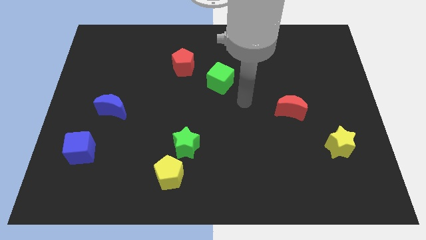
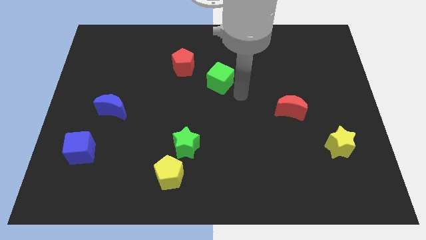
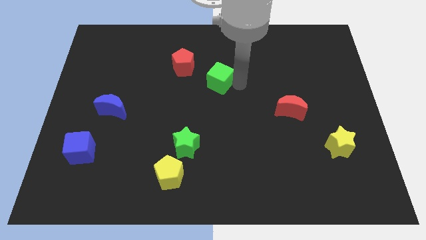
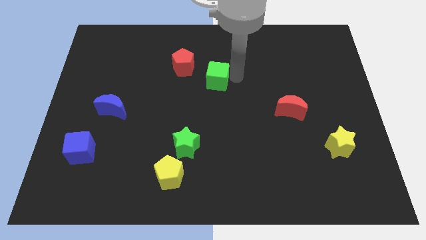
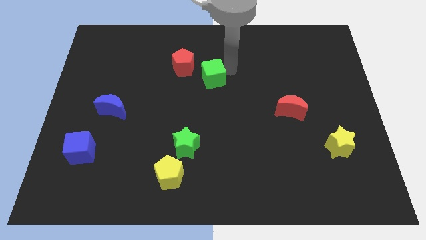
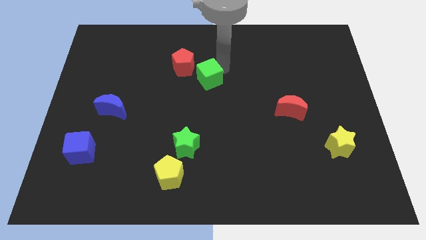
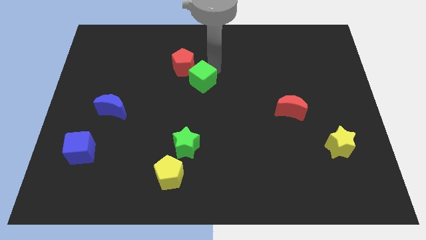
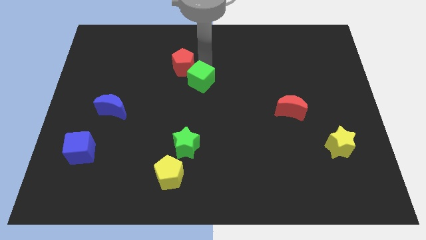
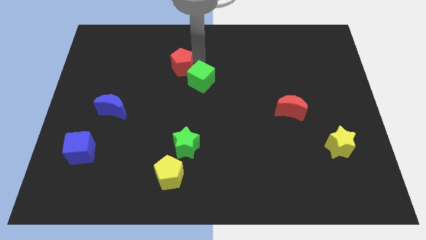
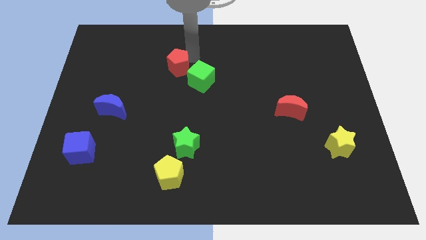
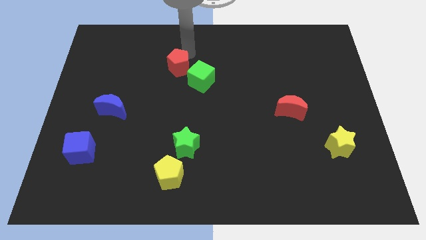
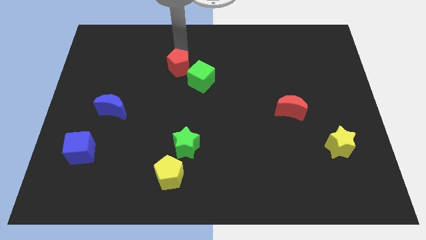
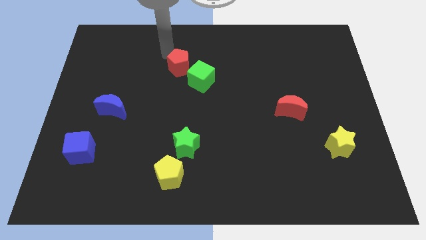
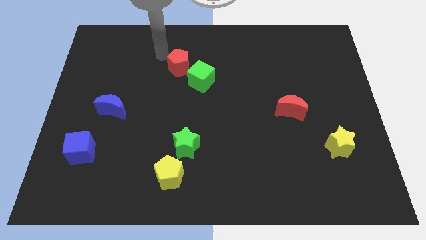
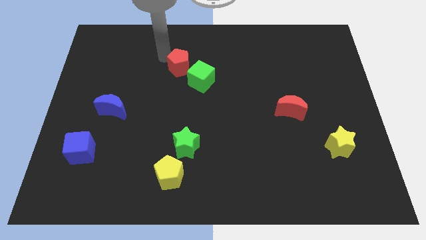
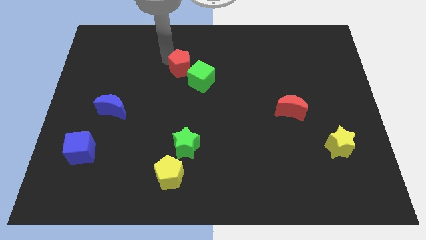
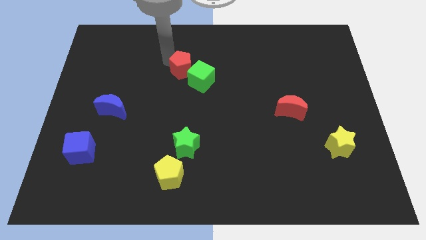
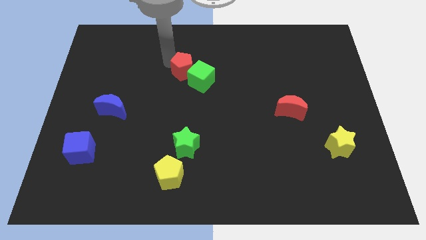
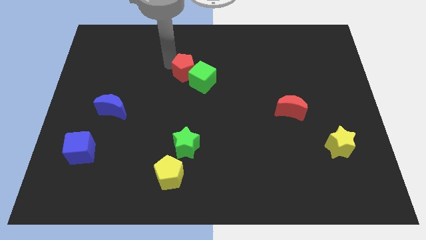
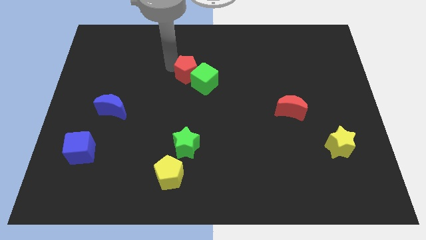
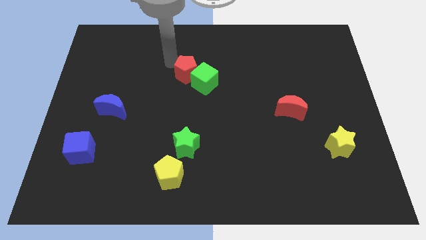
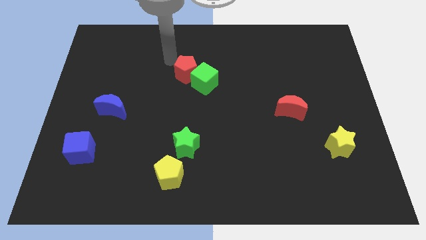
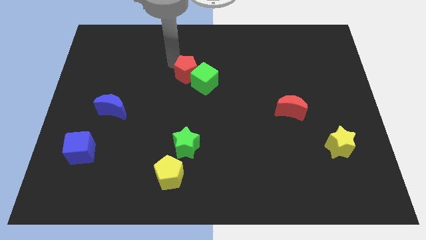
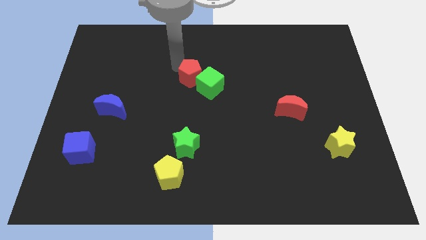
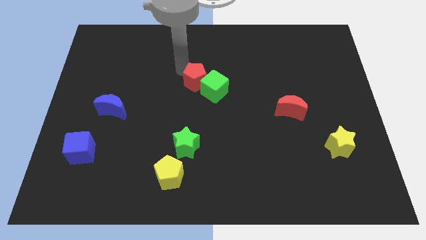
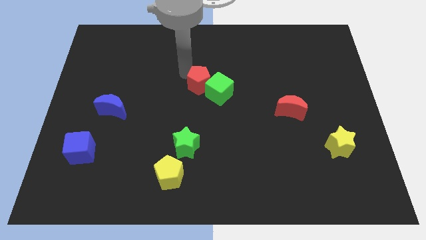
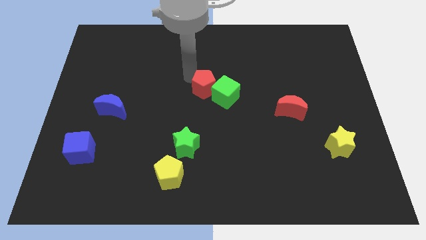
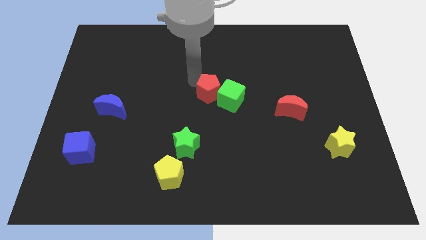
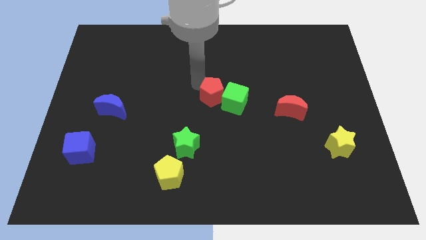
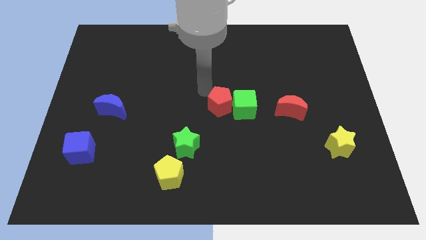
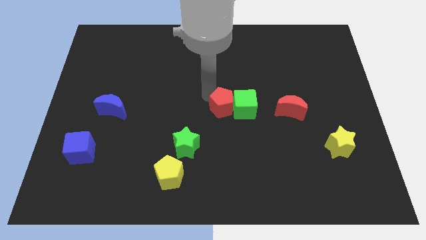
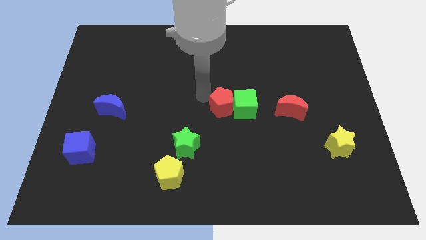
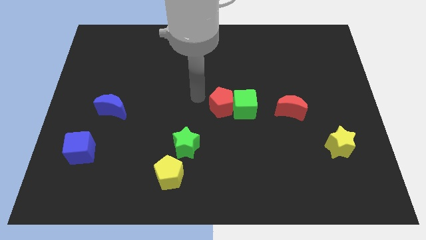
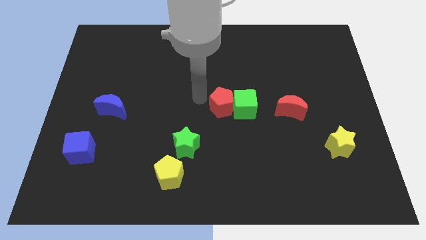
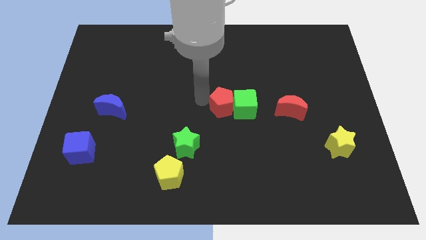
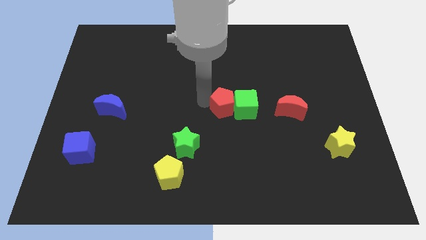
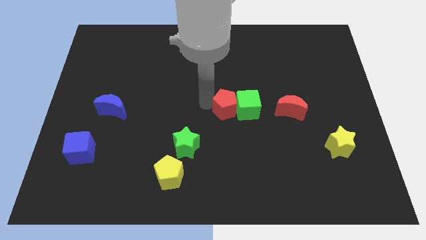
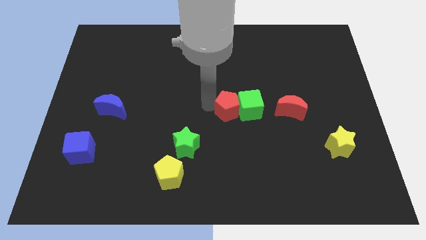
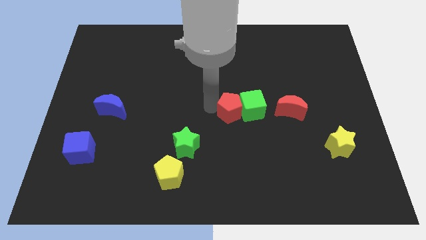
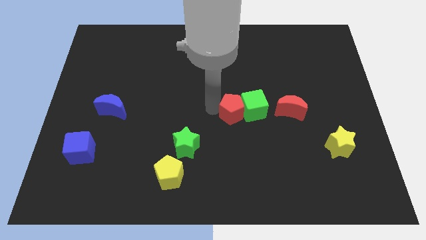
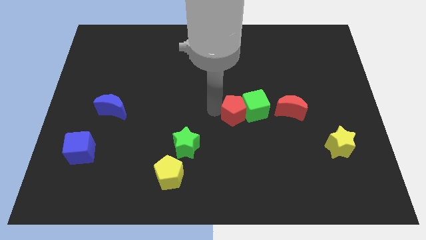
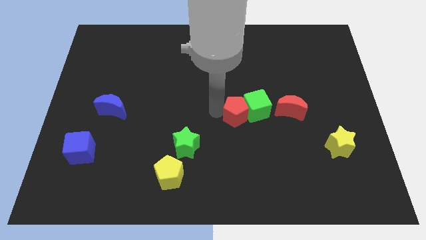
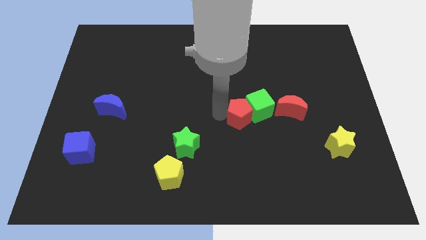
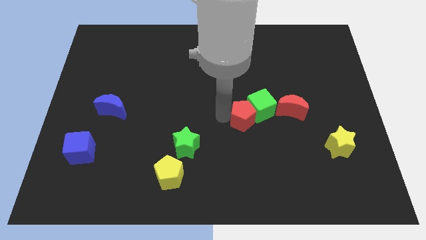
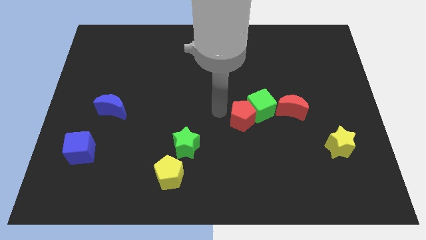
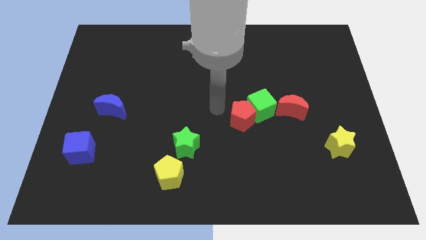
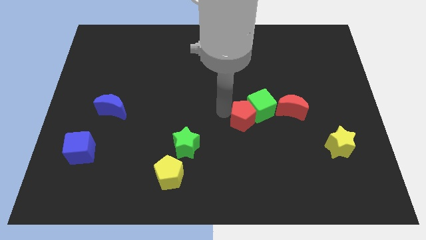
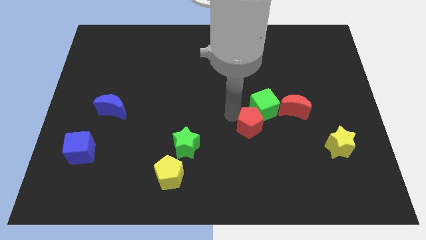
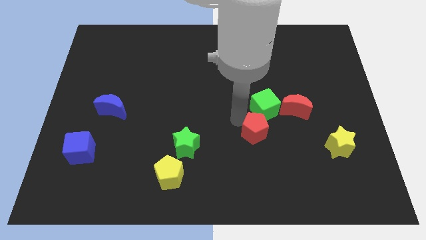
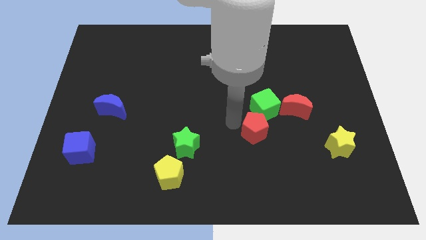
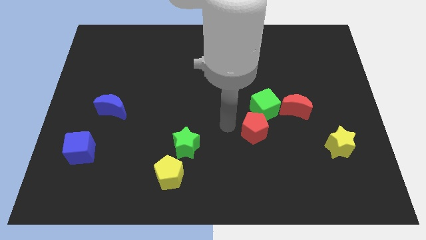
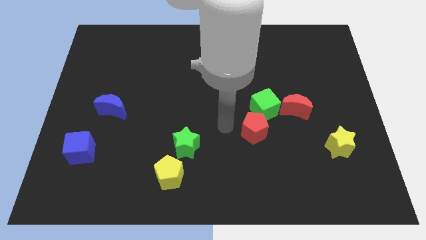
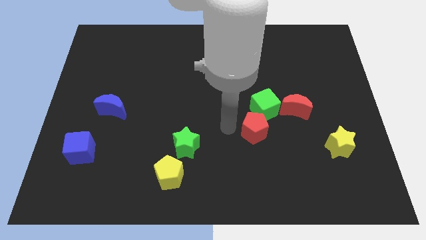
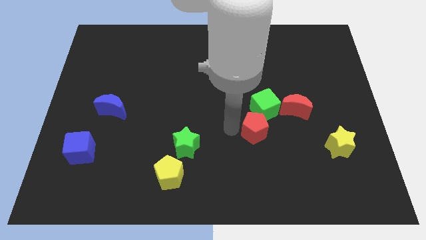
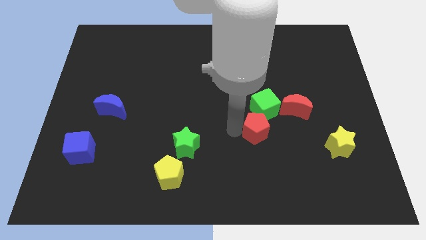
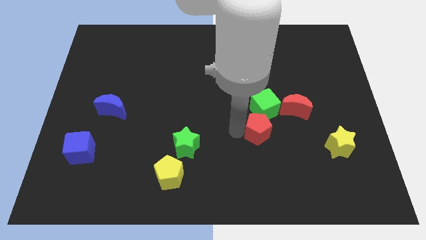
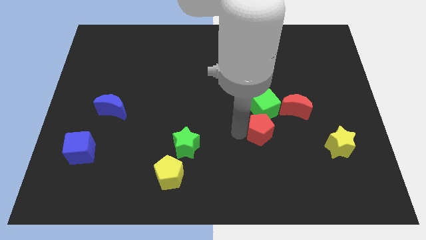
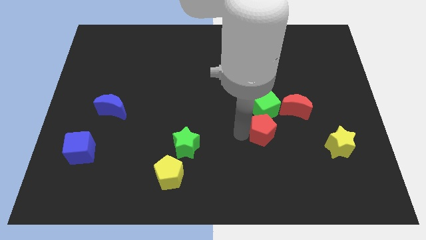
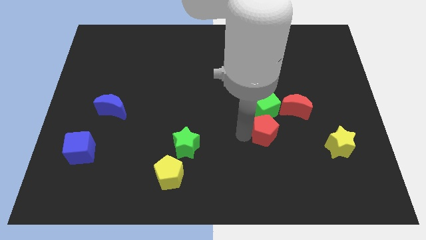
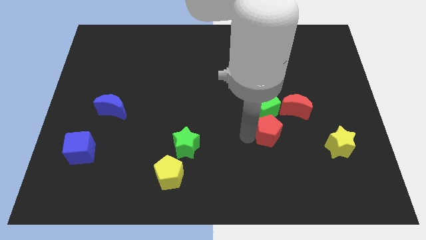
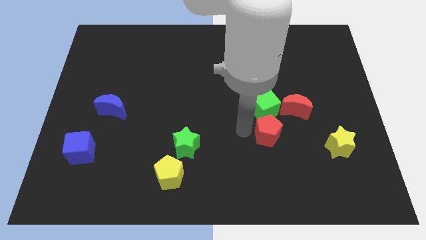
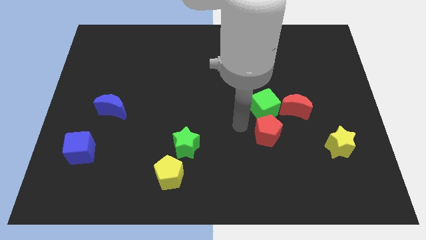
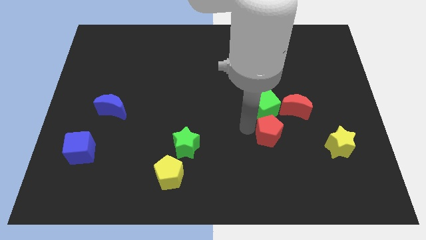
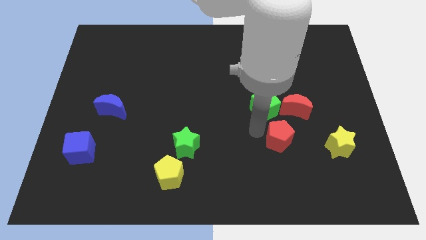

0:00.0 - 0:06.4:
slide the red pentagon to the bottom side of the red moon

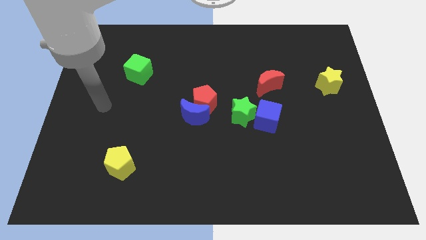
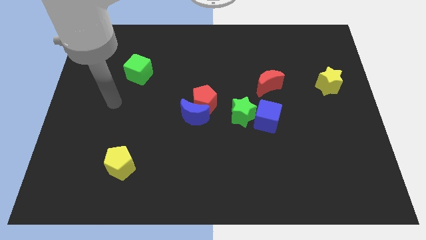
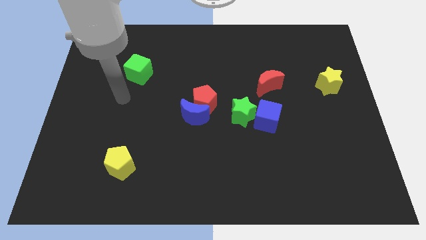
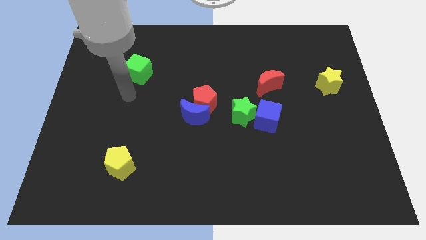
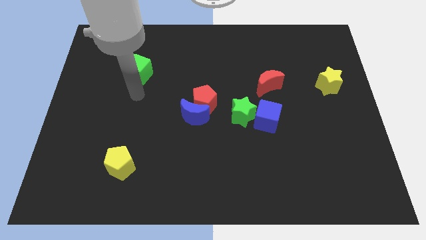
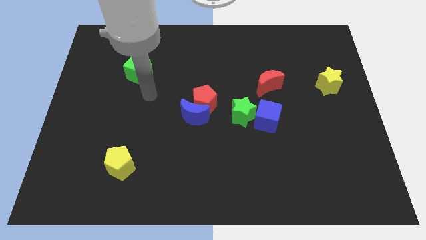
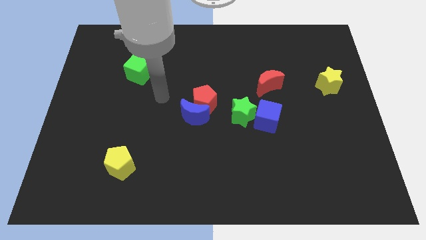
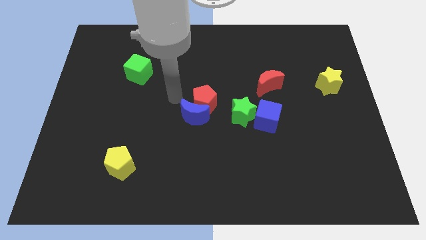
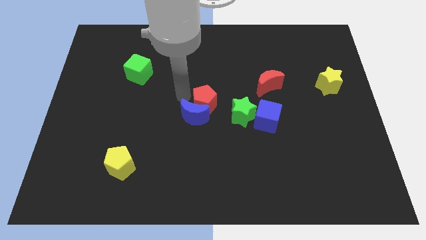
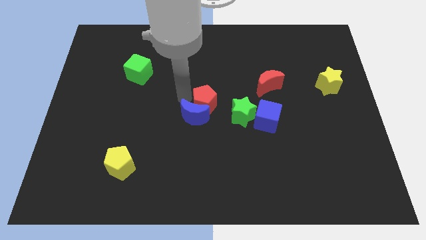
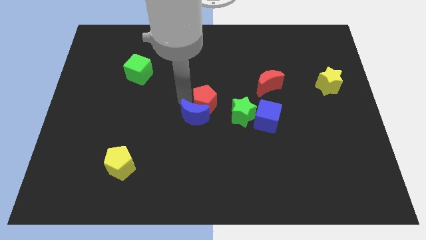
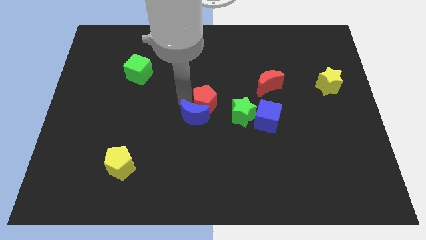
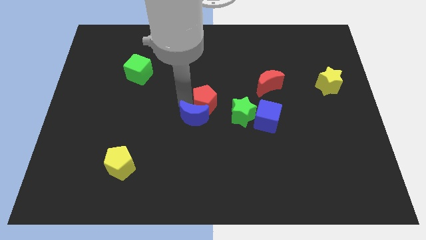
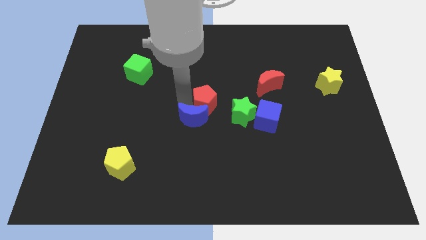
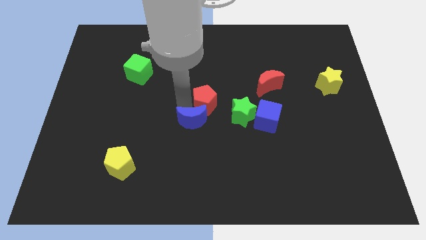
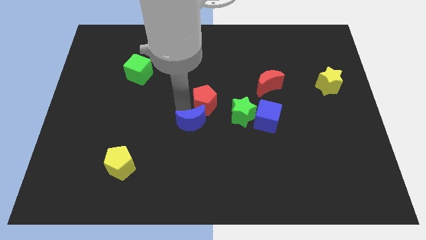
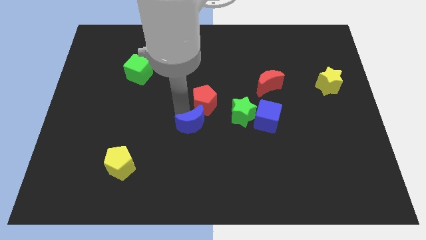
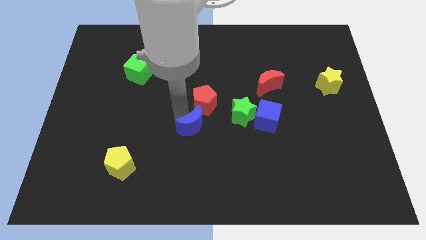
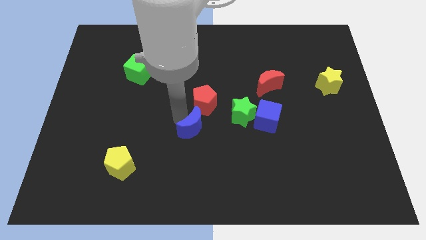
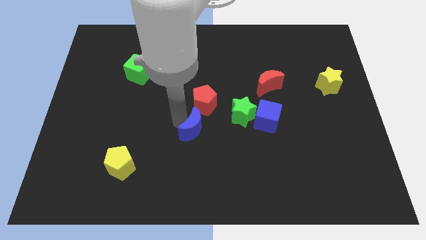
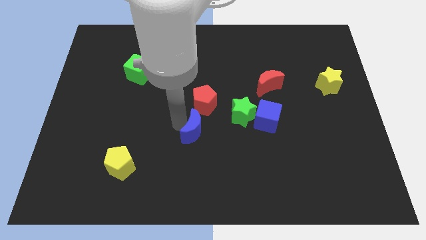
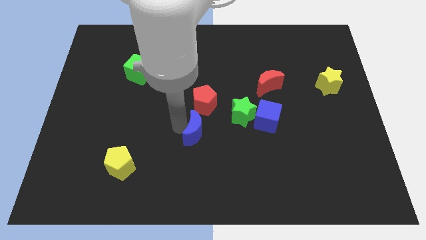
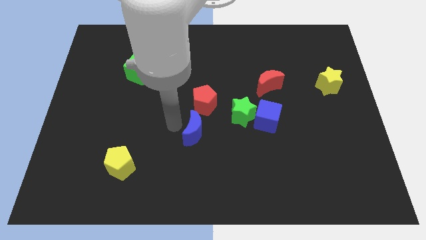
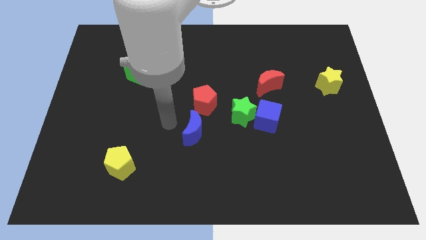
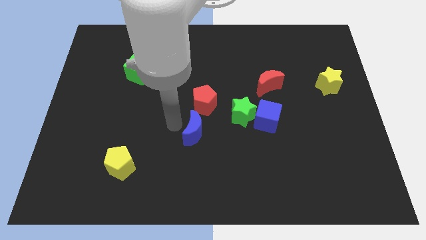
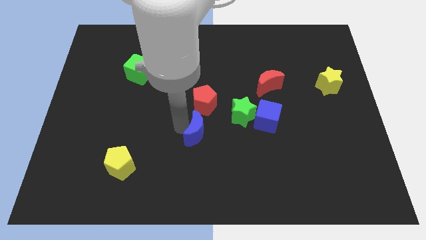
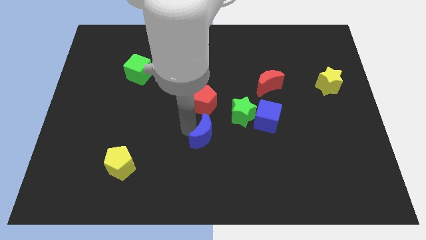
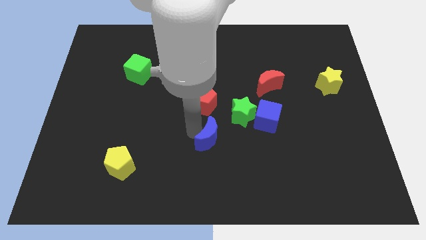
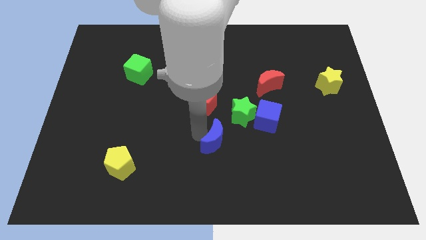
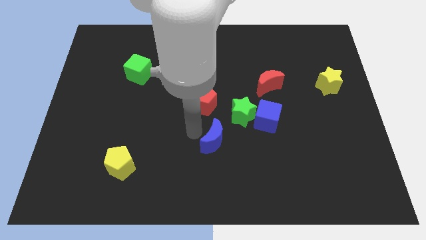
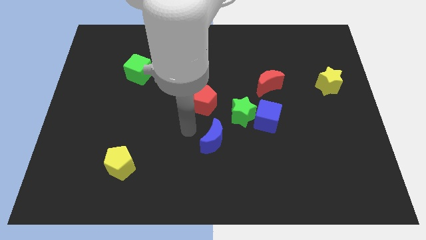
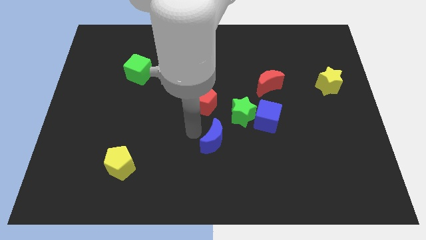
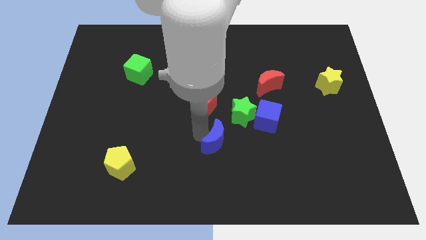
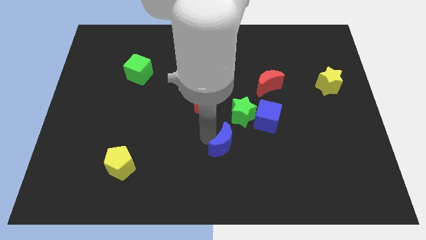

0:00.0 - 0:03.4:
slide the blue moon to the bottom of the green star
